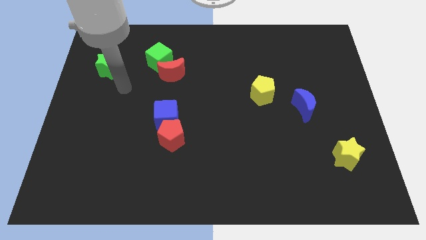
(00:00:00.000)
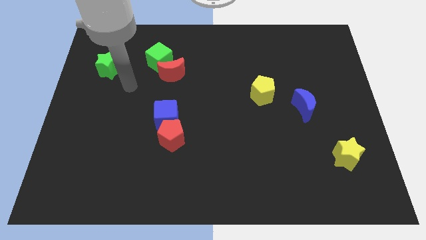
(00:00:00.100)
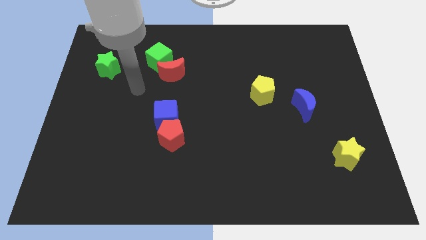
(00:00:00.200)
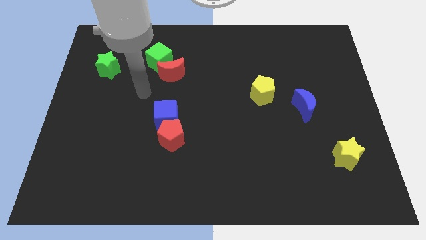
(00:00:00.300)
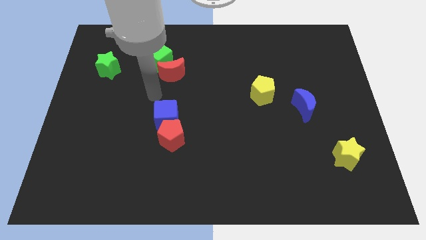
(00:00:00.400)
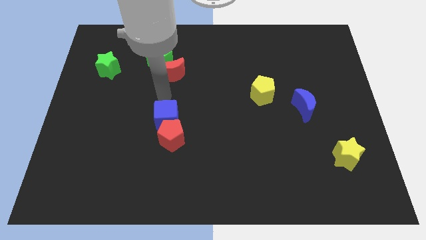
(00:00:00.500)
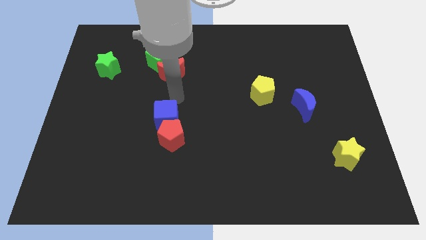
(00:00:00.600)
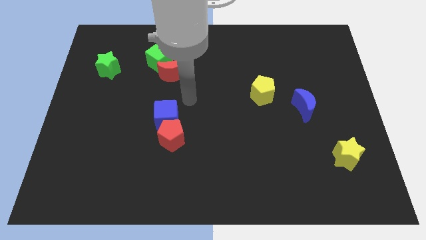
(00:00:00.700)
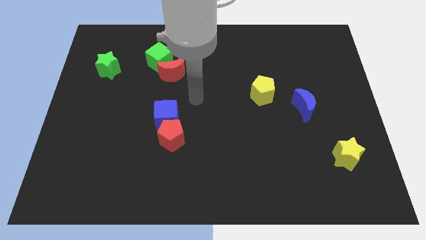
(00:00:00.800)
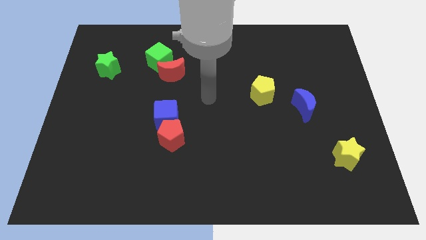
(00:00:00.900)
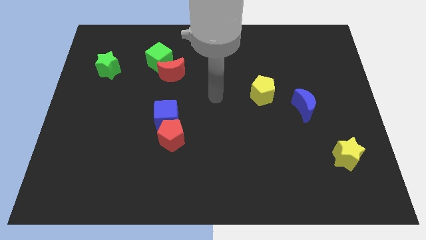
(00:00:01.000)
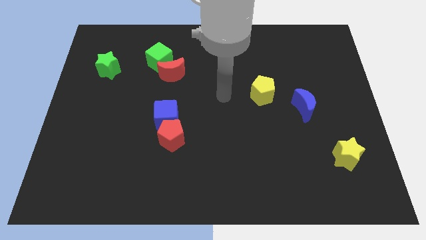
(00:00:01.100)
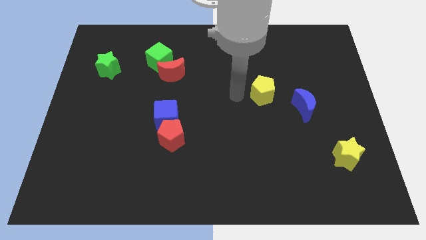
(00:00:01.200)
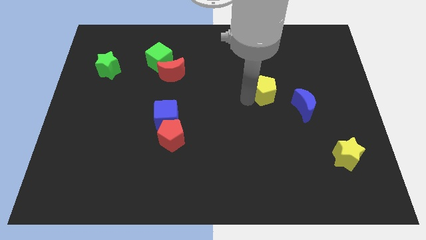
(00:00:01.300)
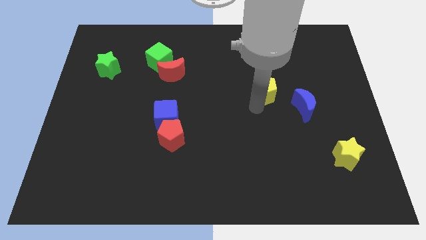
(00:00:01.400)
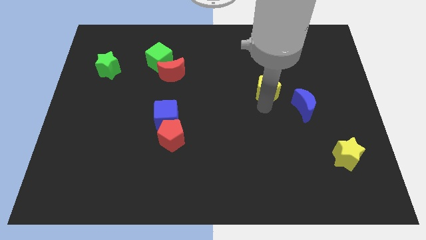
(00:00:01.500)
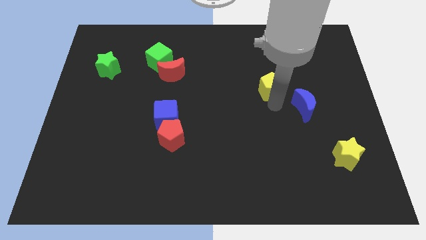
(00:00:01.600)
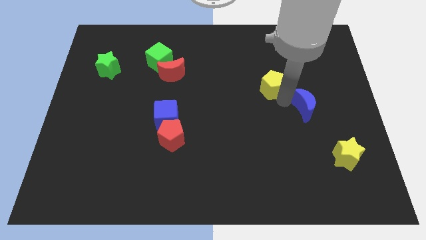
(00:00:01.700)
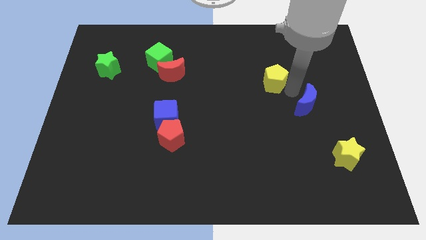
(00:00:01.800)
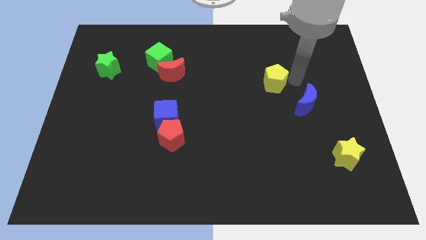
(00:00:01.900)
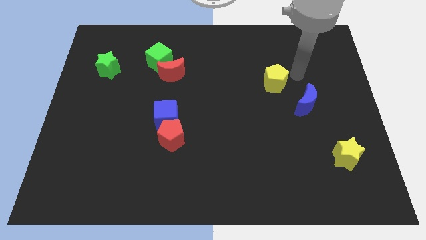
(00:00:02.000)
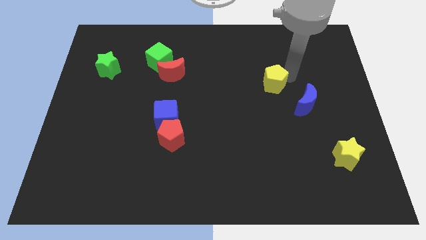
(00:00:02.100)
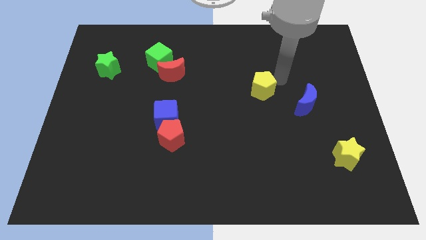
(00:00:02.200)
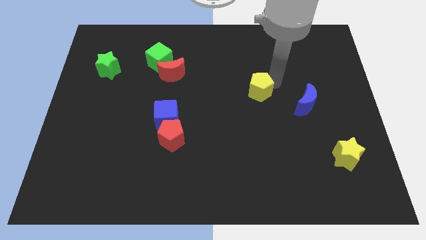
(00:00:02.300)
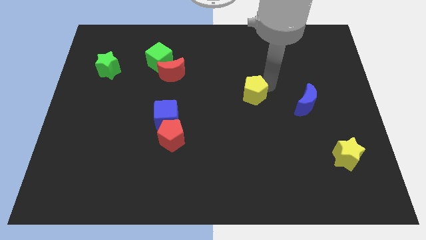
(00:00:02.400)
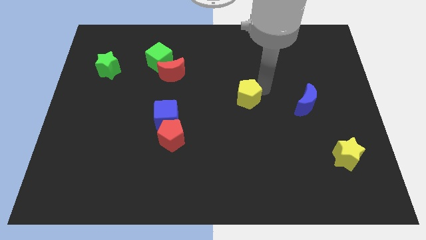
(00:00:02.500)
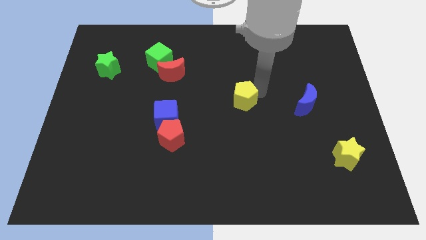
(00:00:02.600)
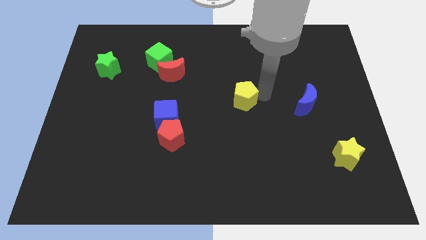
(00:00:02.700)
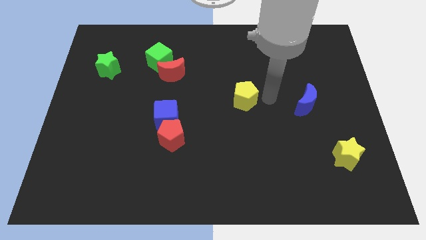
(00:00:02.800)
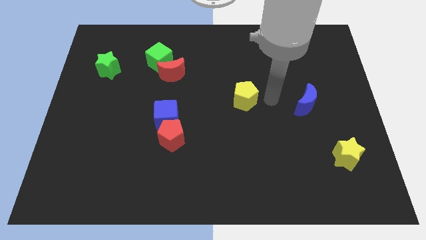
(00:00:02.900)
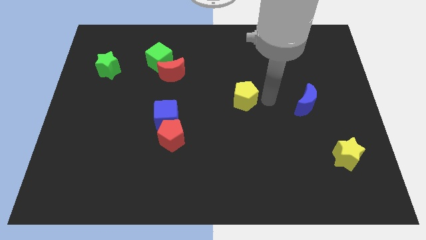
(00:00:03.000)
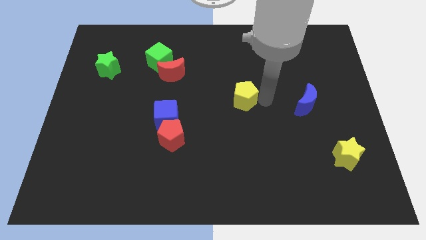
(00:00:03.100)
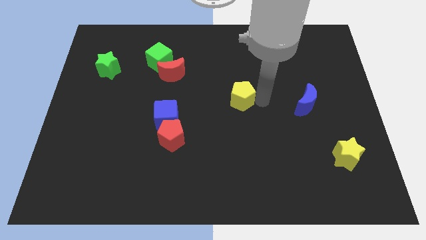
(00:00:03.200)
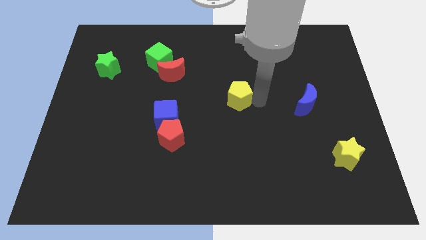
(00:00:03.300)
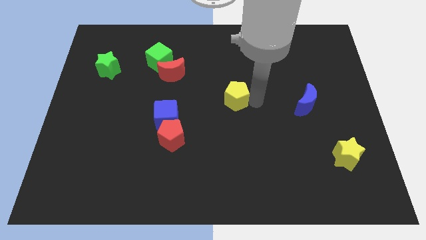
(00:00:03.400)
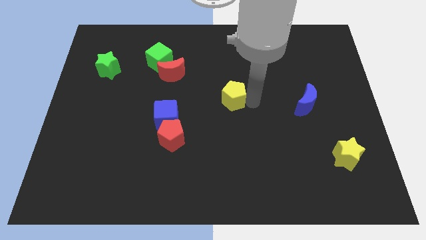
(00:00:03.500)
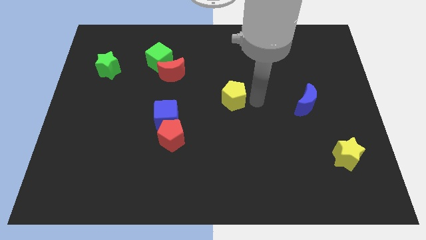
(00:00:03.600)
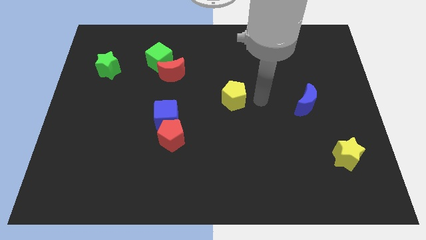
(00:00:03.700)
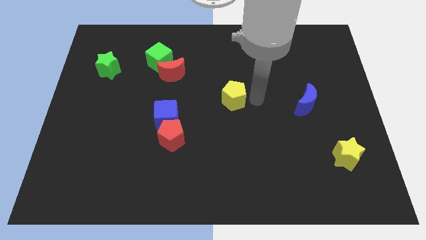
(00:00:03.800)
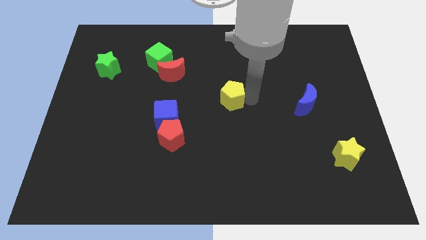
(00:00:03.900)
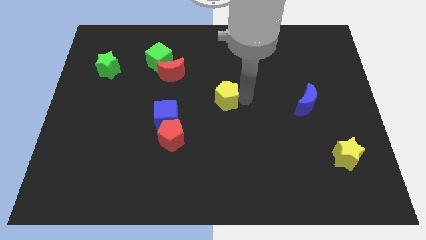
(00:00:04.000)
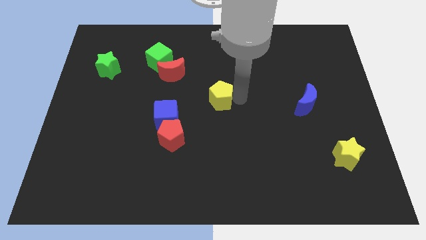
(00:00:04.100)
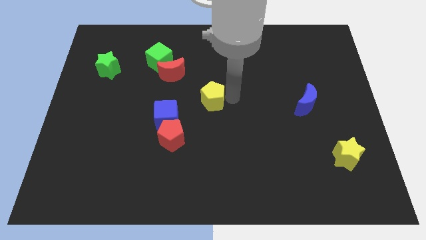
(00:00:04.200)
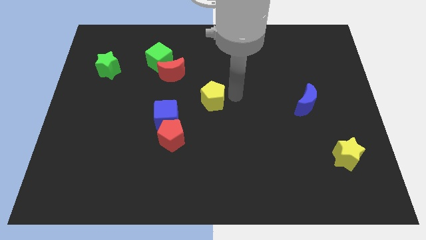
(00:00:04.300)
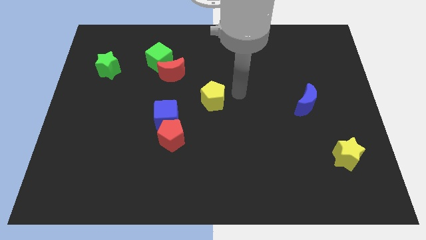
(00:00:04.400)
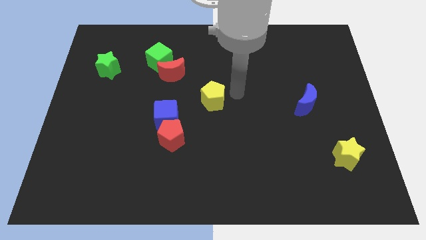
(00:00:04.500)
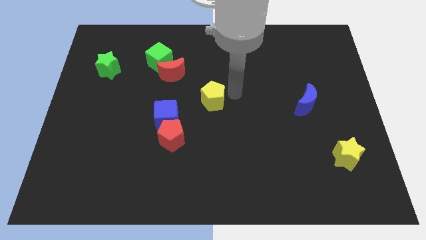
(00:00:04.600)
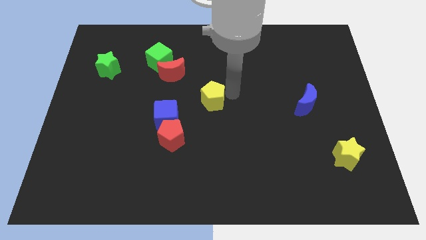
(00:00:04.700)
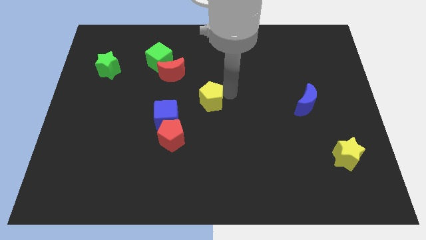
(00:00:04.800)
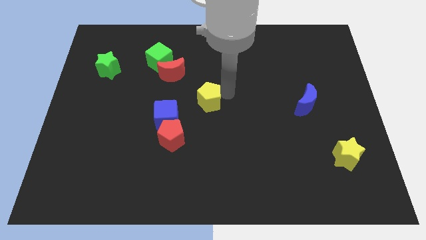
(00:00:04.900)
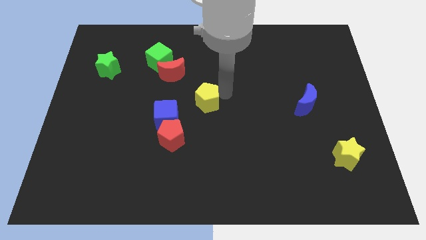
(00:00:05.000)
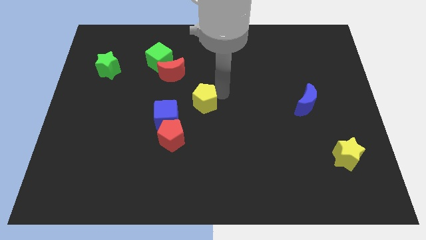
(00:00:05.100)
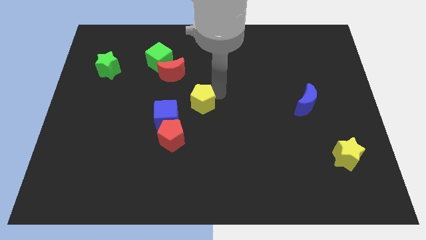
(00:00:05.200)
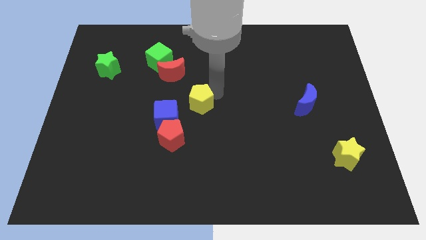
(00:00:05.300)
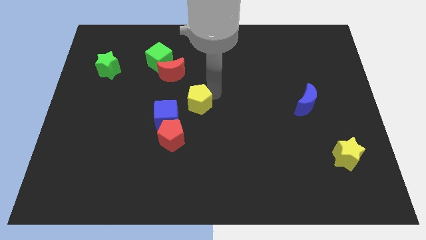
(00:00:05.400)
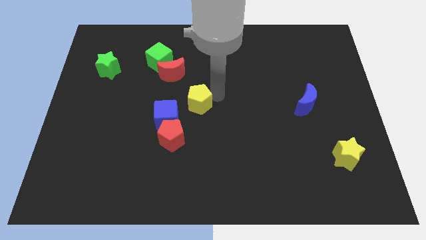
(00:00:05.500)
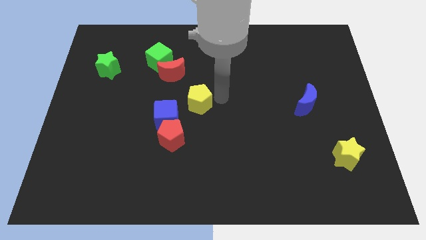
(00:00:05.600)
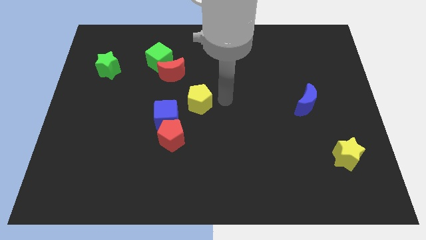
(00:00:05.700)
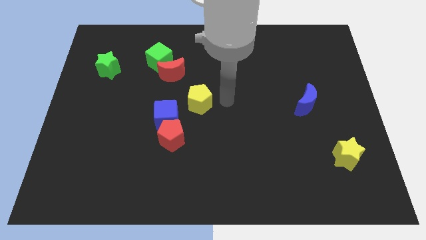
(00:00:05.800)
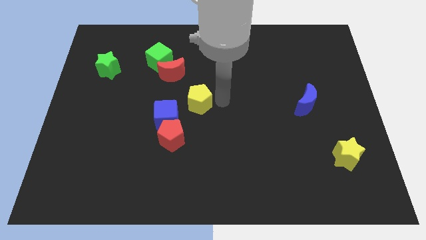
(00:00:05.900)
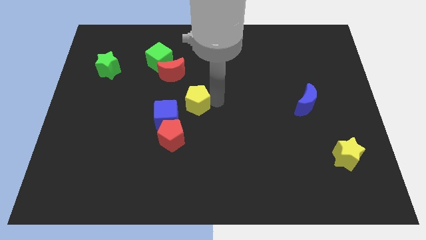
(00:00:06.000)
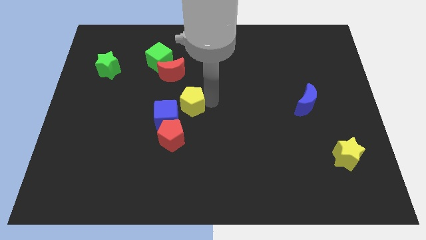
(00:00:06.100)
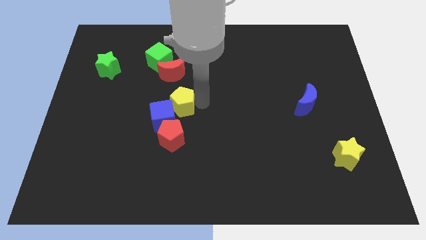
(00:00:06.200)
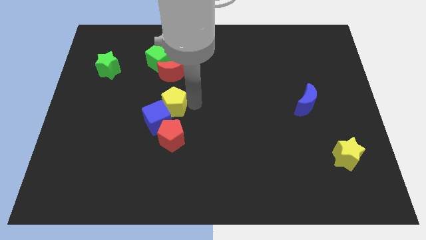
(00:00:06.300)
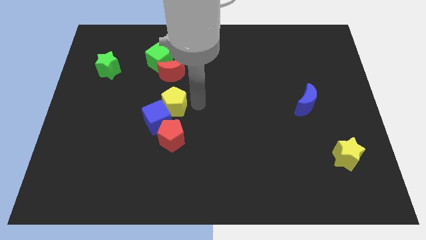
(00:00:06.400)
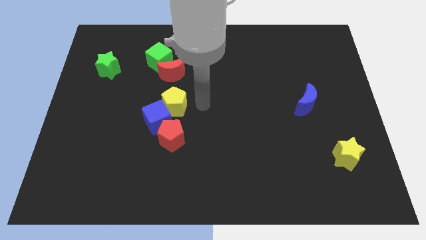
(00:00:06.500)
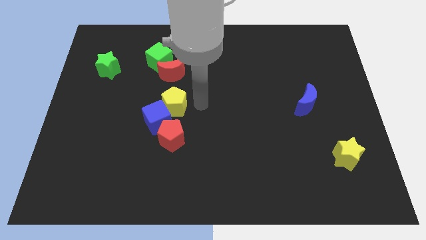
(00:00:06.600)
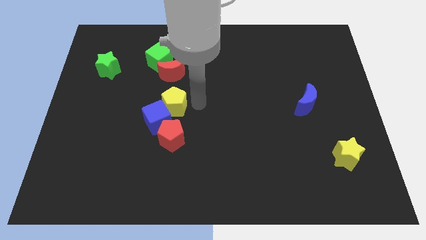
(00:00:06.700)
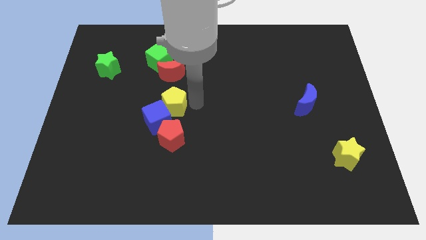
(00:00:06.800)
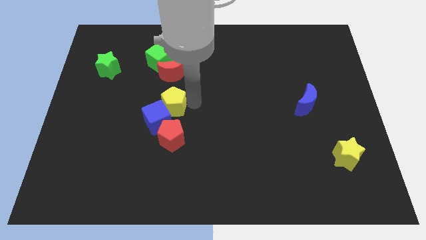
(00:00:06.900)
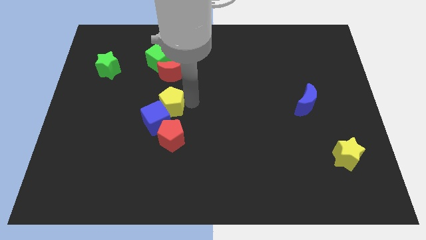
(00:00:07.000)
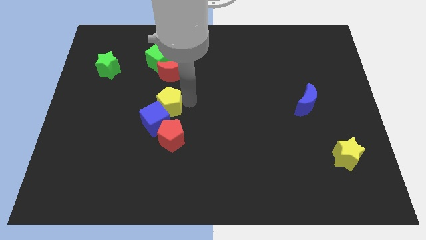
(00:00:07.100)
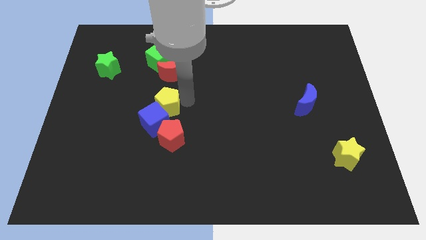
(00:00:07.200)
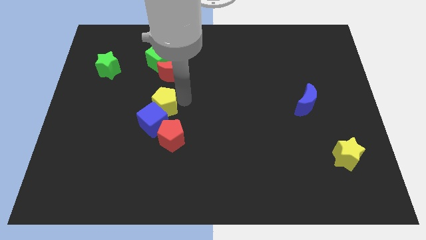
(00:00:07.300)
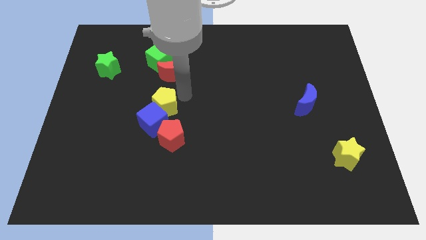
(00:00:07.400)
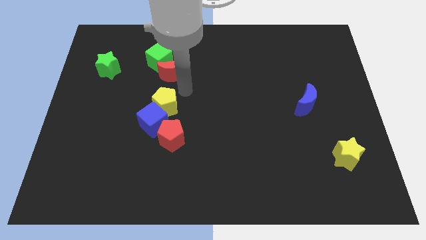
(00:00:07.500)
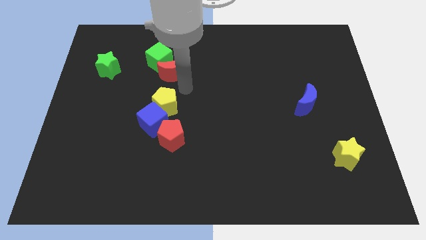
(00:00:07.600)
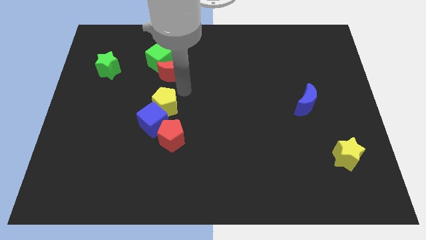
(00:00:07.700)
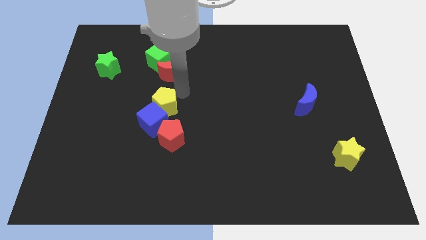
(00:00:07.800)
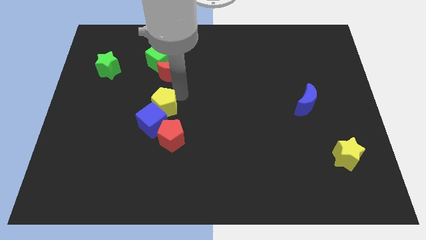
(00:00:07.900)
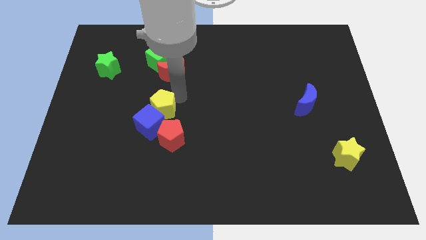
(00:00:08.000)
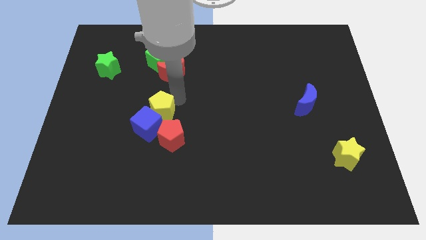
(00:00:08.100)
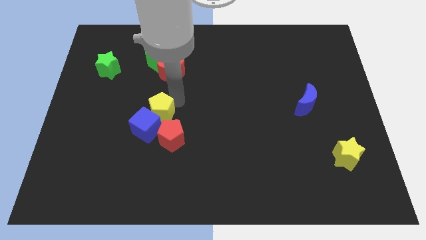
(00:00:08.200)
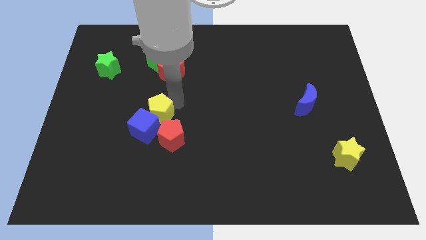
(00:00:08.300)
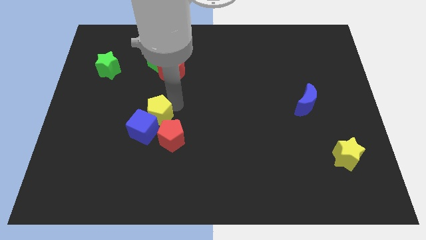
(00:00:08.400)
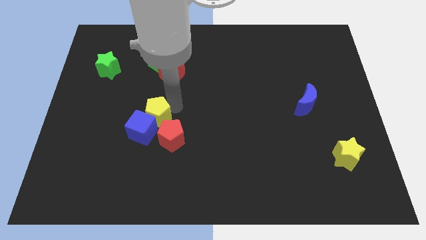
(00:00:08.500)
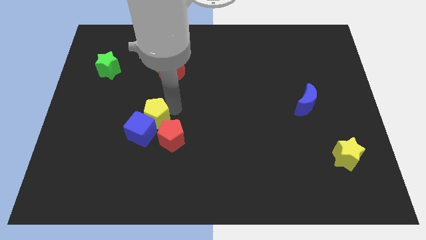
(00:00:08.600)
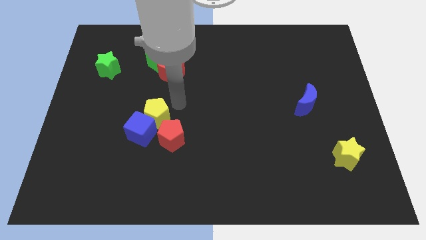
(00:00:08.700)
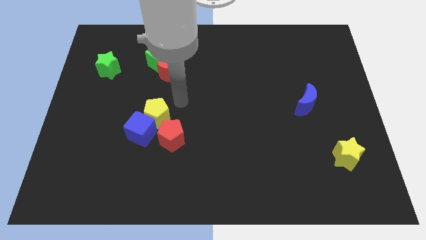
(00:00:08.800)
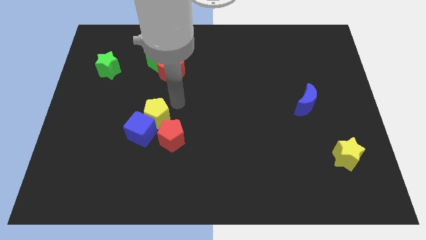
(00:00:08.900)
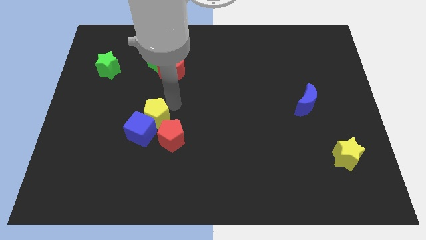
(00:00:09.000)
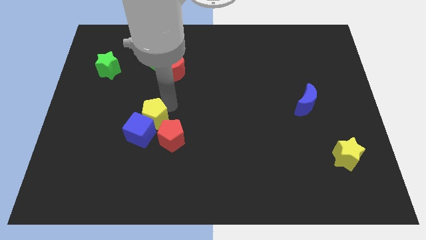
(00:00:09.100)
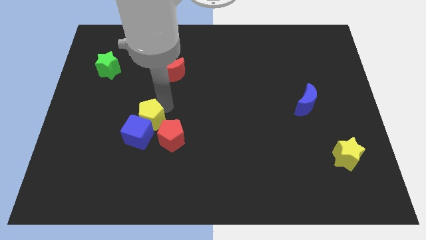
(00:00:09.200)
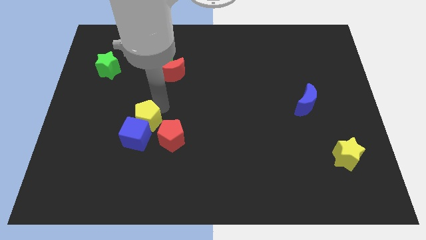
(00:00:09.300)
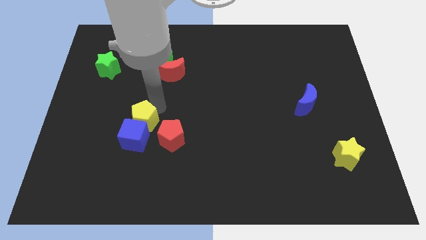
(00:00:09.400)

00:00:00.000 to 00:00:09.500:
slide the yellow pentagon to the left of the red pentagon
